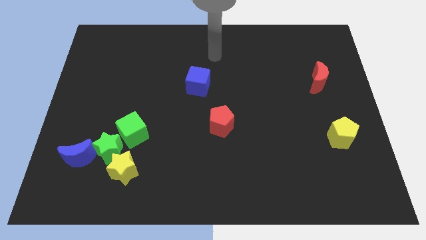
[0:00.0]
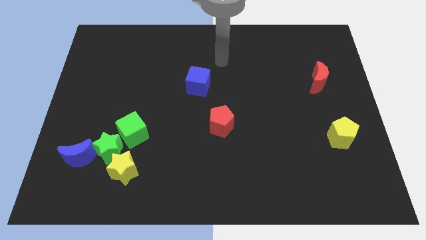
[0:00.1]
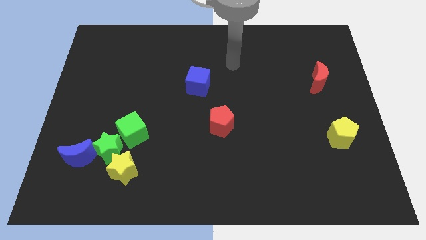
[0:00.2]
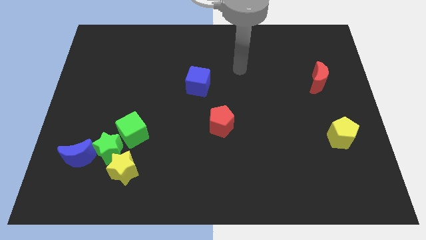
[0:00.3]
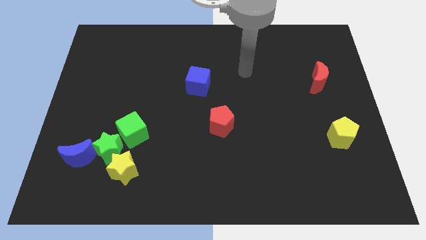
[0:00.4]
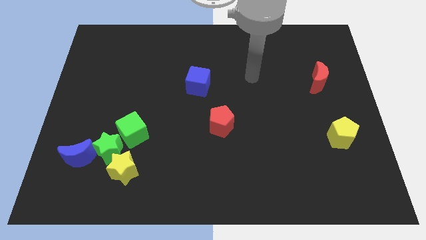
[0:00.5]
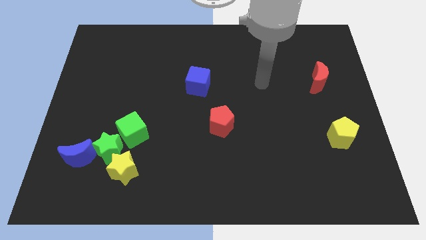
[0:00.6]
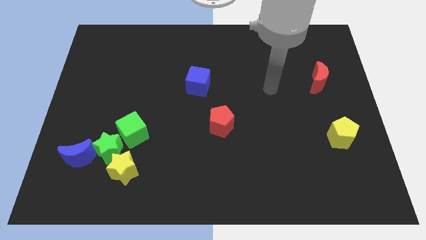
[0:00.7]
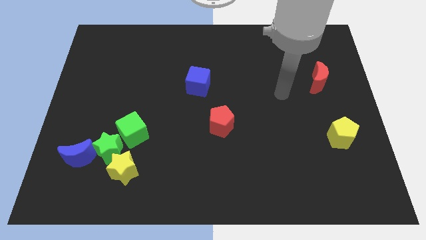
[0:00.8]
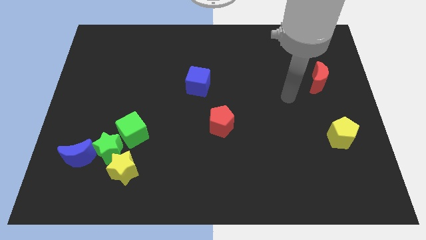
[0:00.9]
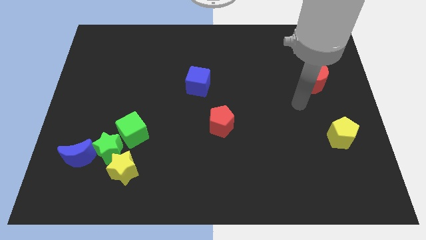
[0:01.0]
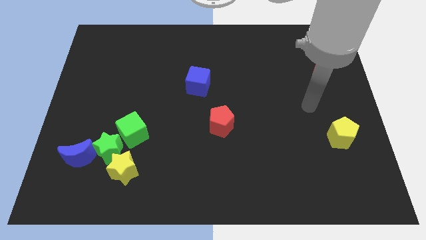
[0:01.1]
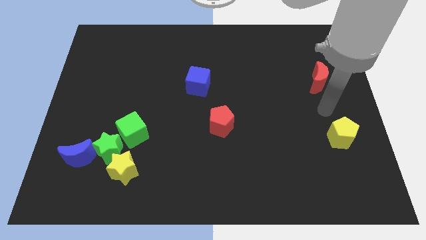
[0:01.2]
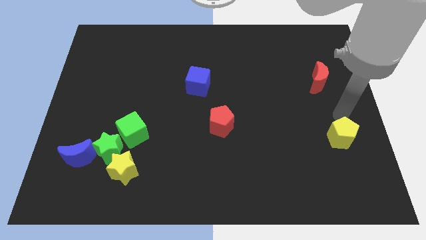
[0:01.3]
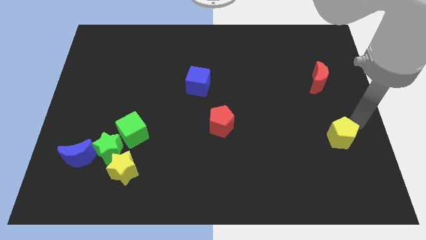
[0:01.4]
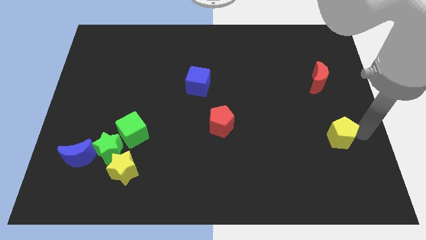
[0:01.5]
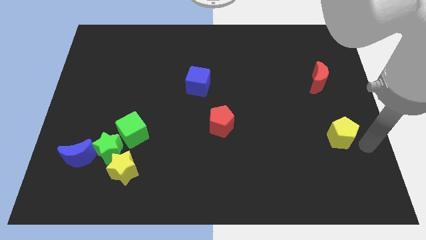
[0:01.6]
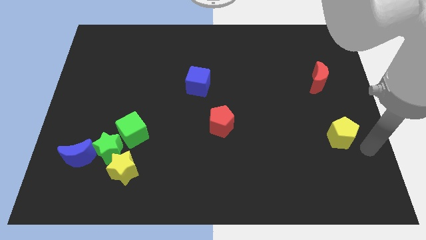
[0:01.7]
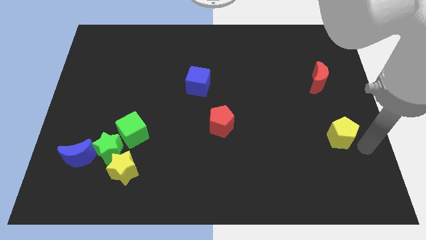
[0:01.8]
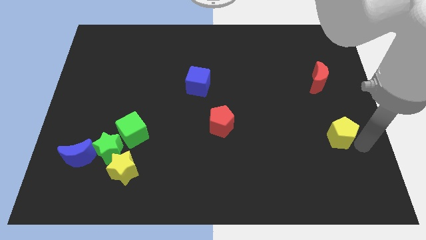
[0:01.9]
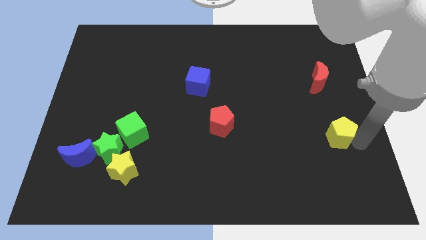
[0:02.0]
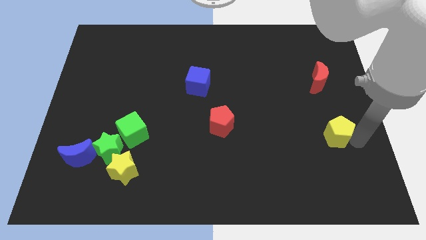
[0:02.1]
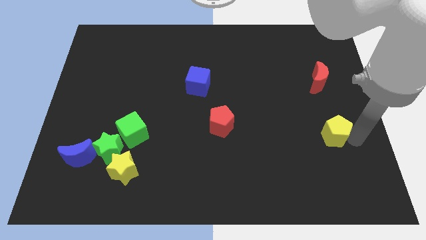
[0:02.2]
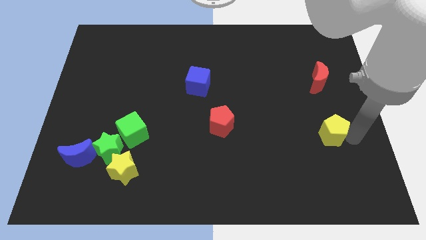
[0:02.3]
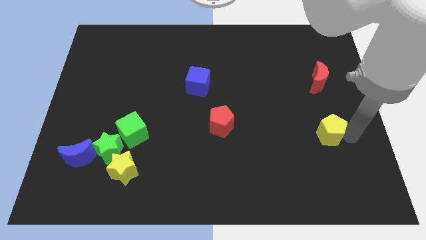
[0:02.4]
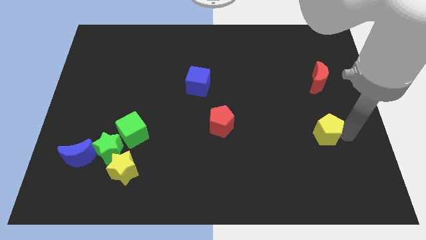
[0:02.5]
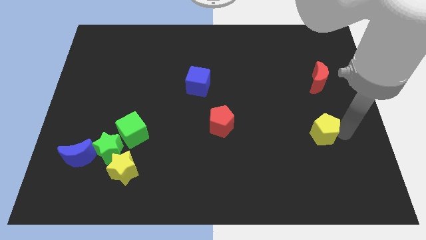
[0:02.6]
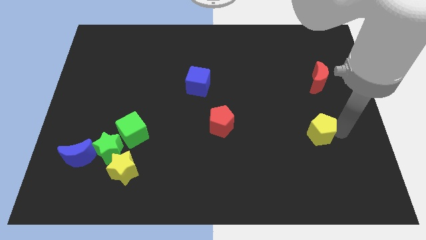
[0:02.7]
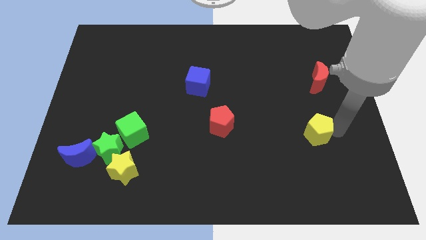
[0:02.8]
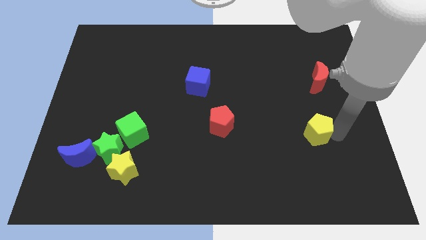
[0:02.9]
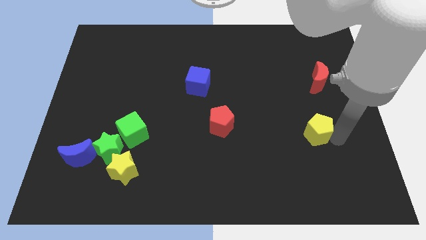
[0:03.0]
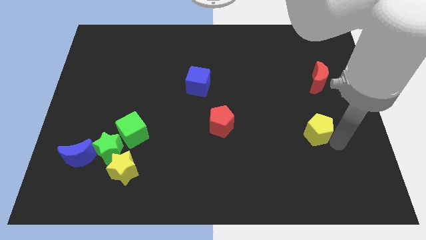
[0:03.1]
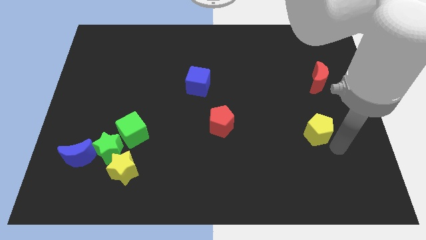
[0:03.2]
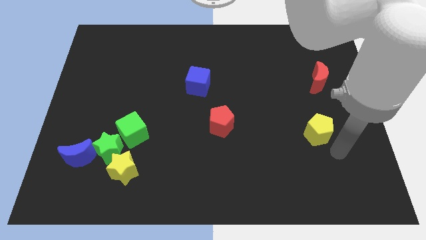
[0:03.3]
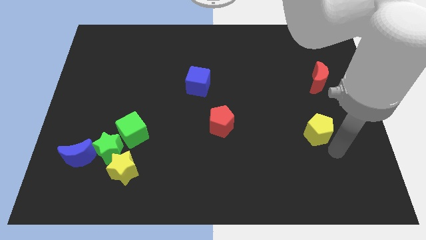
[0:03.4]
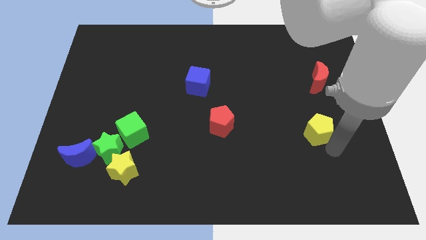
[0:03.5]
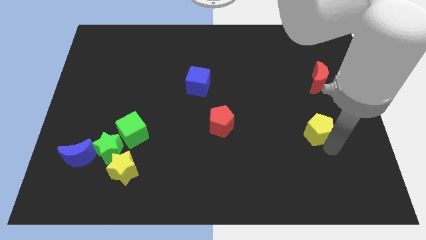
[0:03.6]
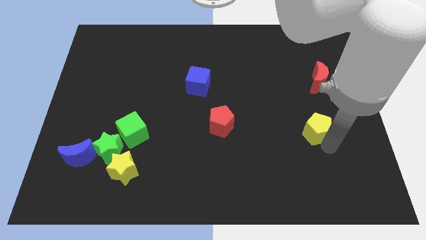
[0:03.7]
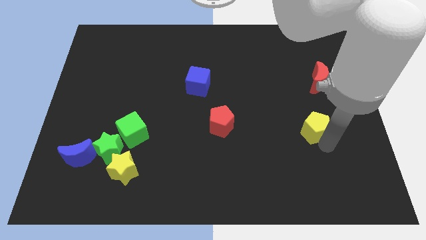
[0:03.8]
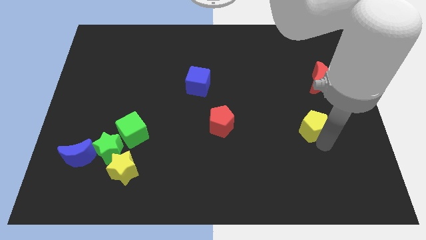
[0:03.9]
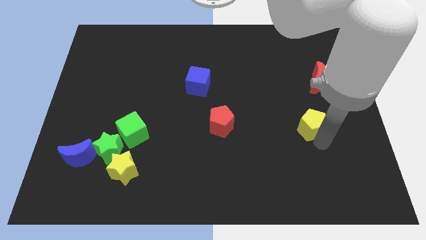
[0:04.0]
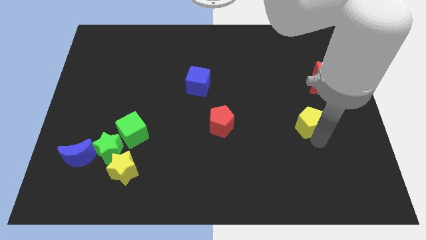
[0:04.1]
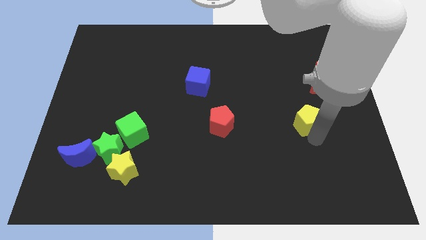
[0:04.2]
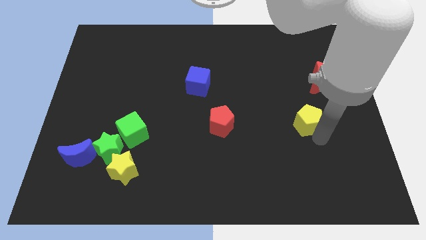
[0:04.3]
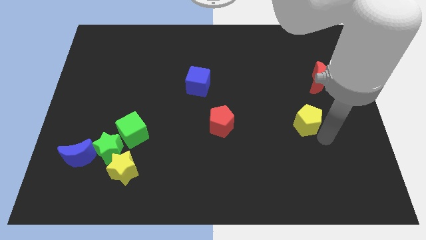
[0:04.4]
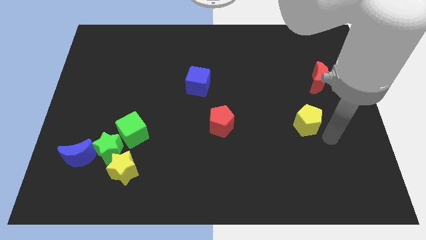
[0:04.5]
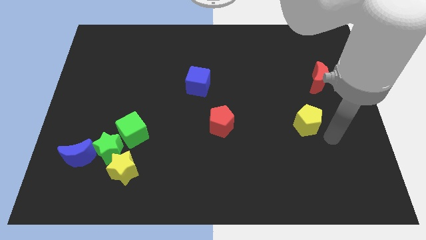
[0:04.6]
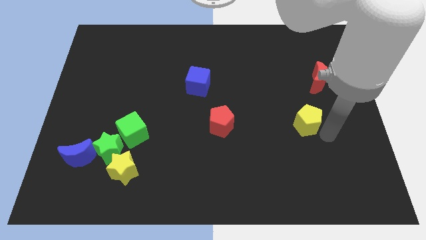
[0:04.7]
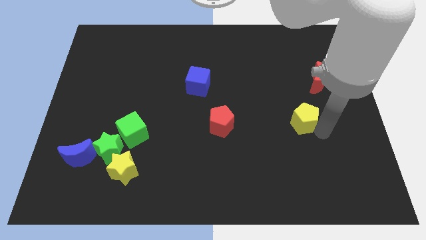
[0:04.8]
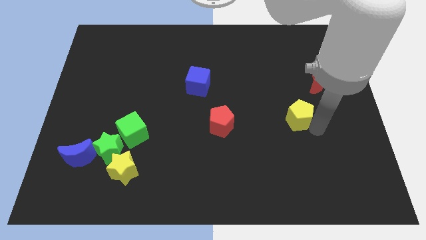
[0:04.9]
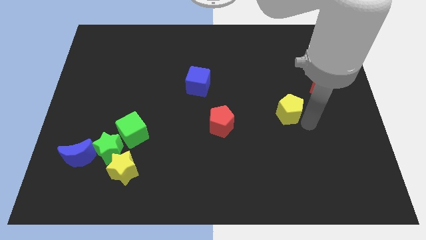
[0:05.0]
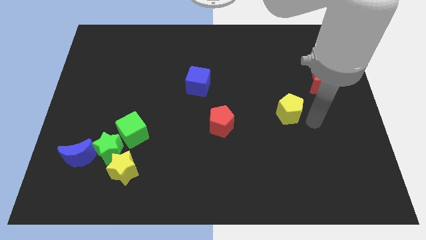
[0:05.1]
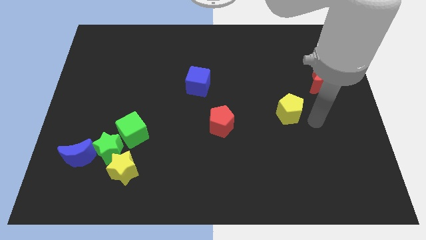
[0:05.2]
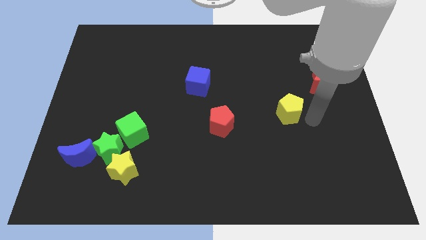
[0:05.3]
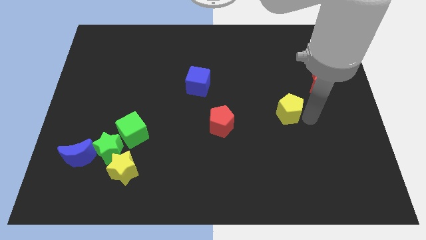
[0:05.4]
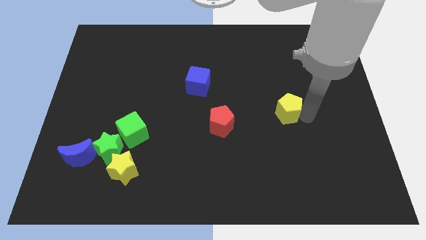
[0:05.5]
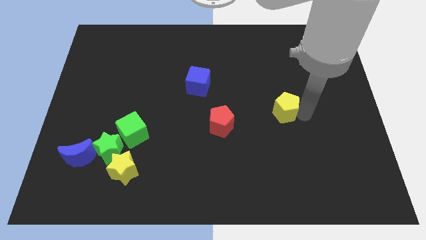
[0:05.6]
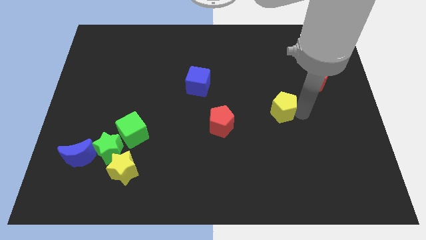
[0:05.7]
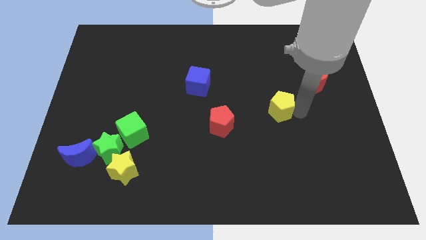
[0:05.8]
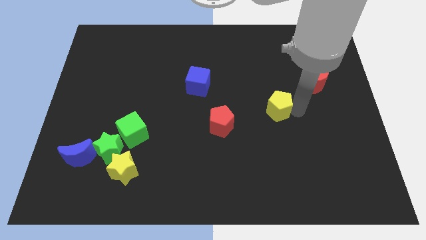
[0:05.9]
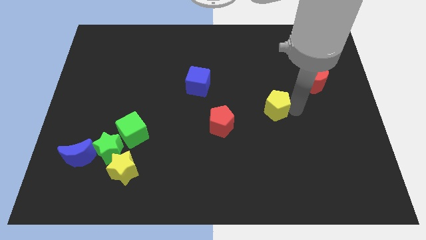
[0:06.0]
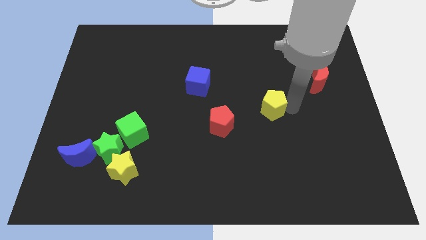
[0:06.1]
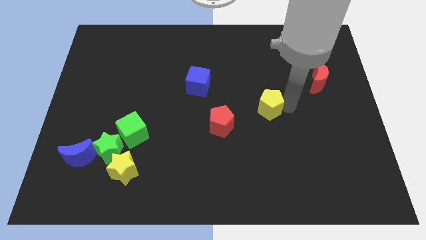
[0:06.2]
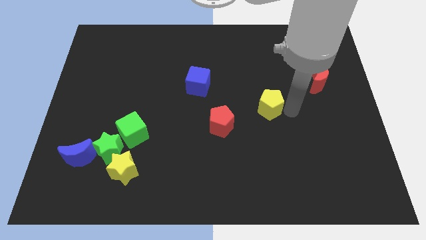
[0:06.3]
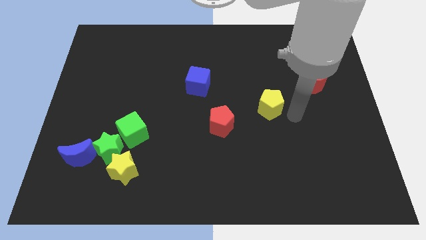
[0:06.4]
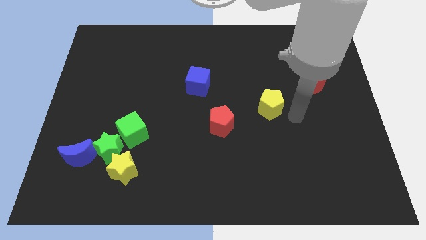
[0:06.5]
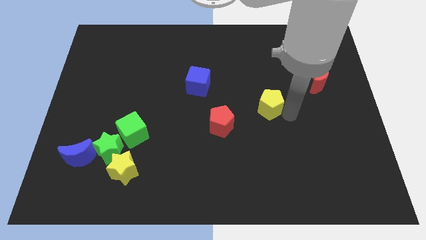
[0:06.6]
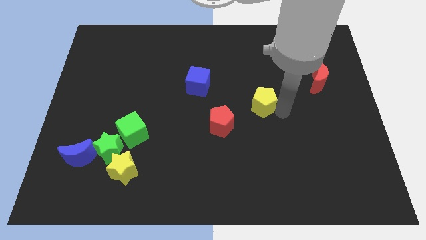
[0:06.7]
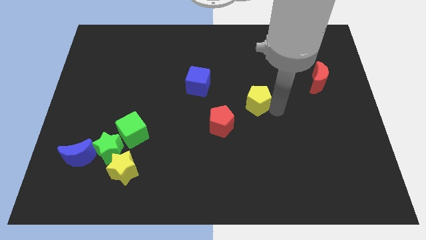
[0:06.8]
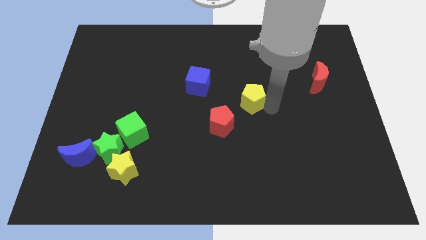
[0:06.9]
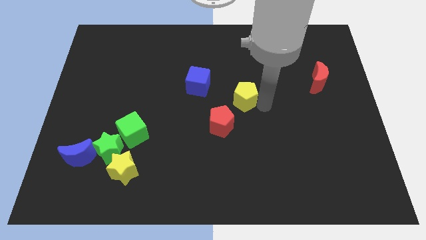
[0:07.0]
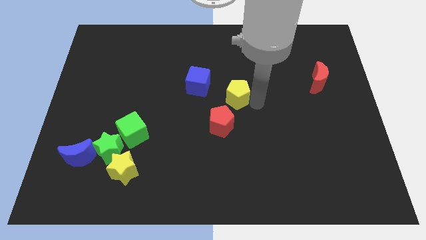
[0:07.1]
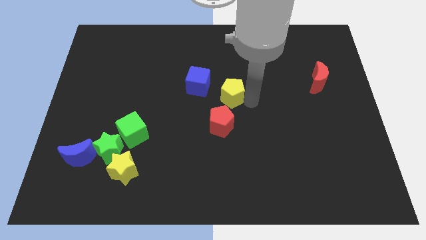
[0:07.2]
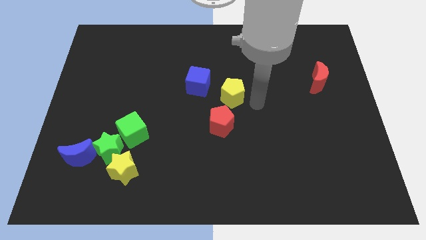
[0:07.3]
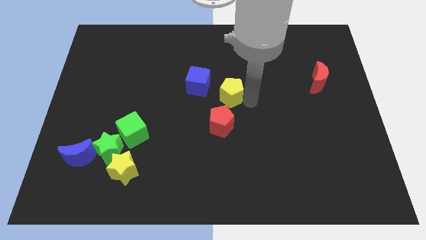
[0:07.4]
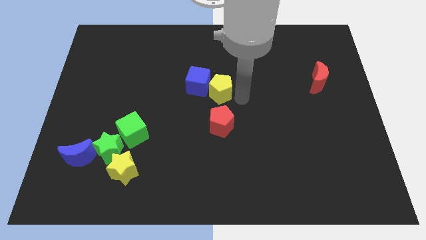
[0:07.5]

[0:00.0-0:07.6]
slide the yellow pentagon towards the blue cube
